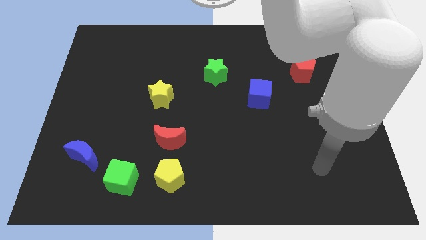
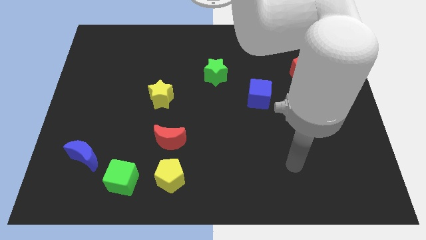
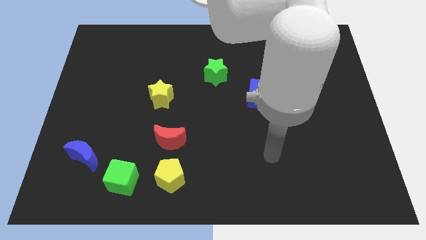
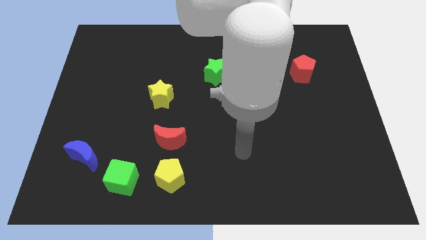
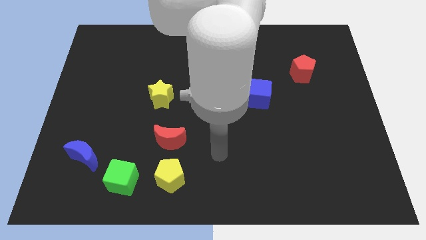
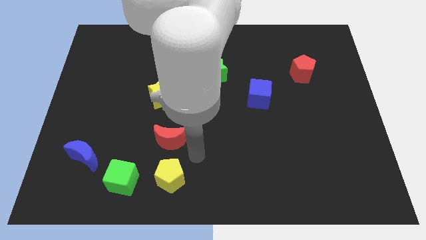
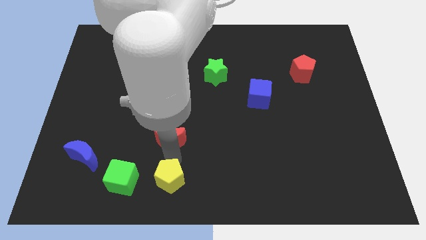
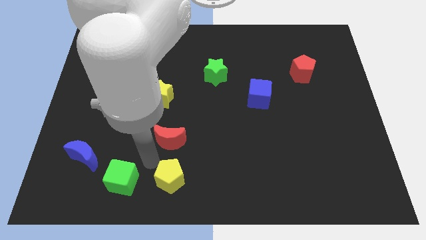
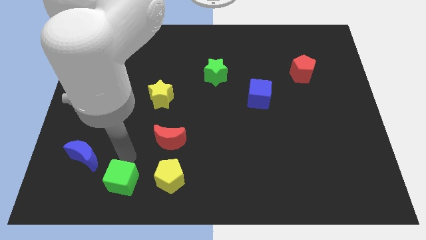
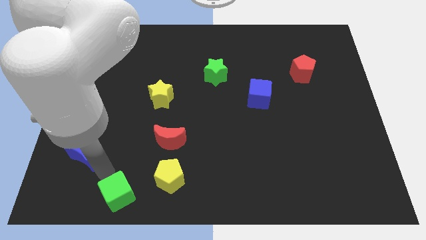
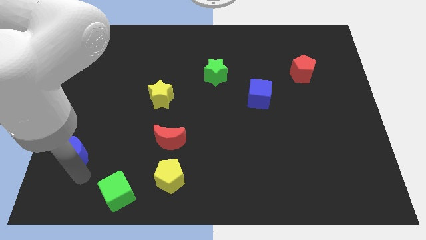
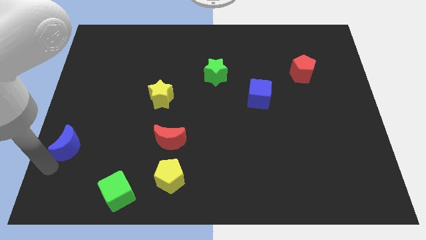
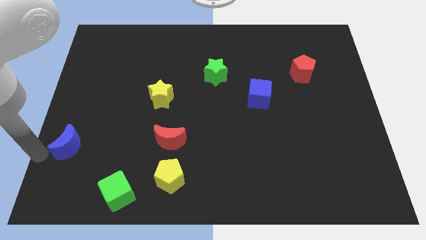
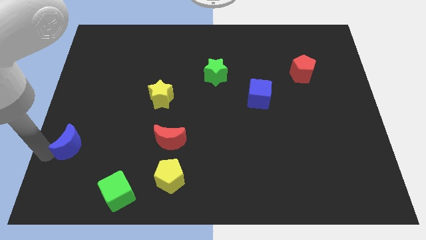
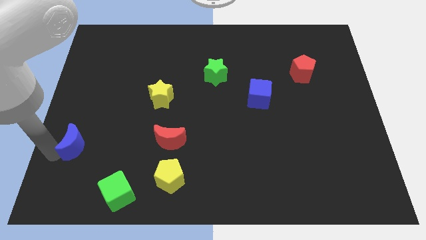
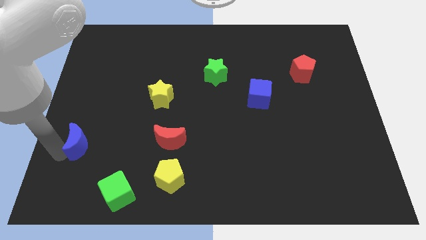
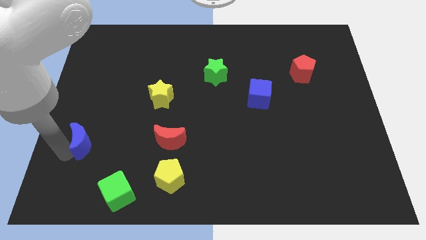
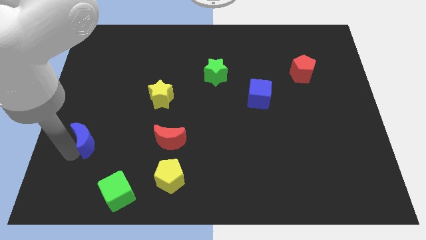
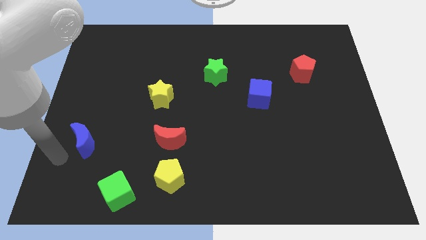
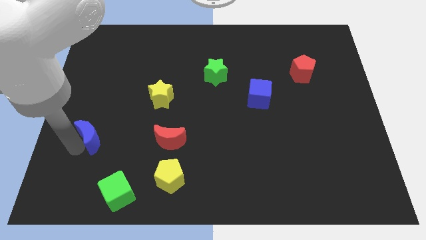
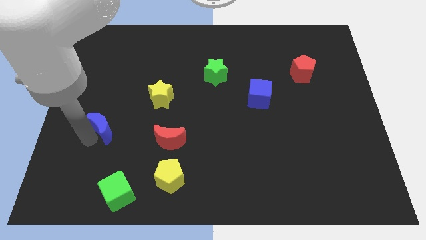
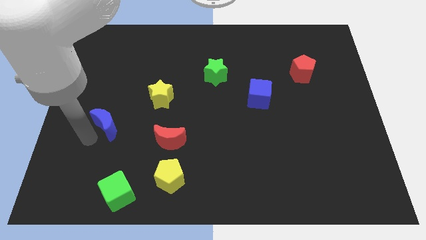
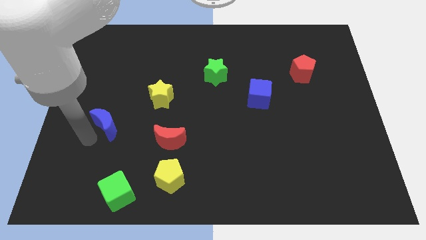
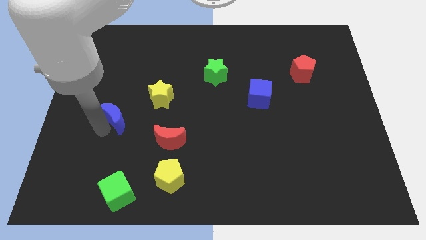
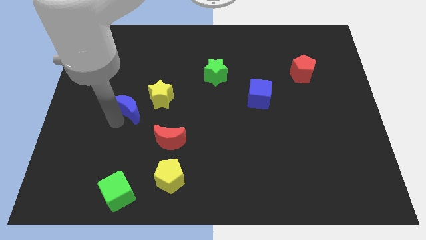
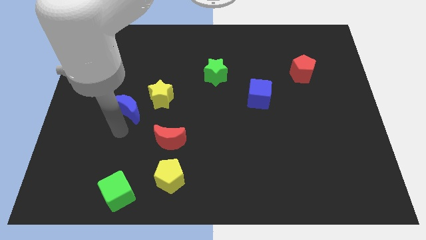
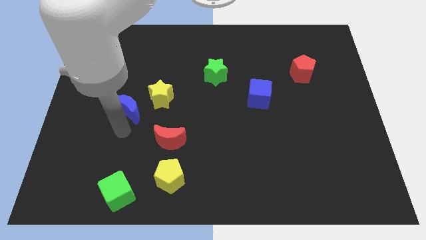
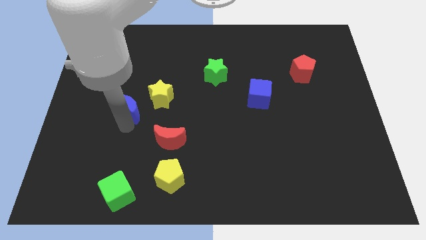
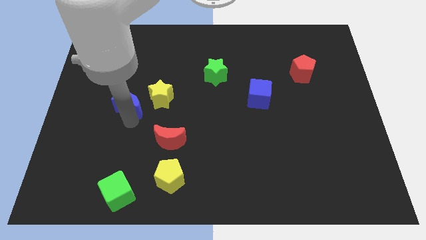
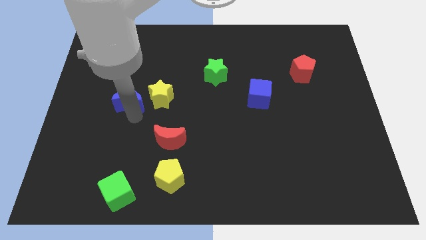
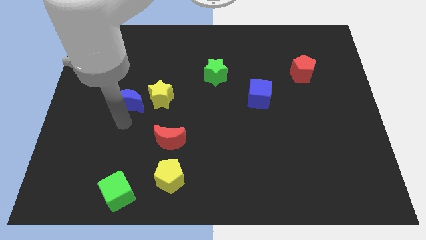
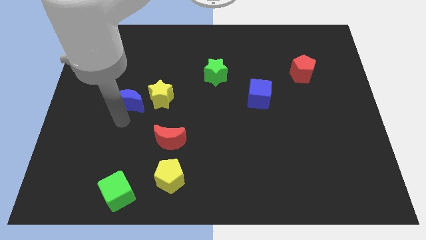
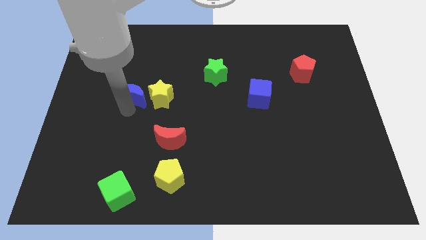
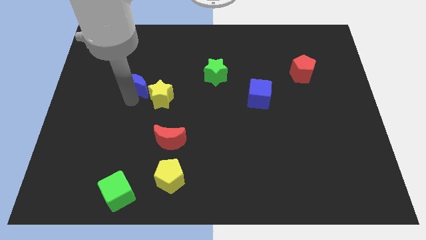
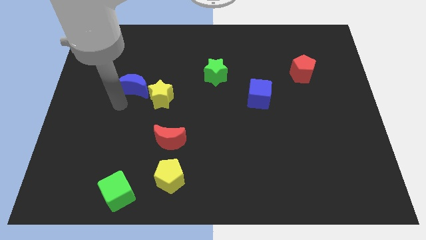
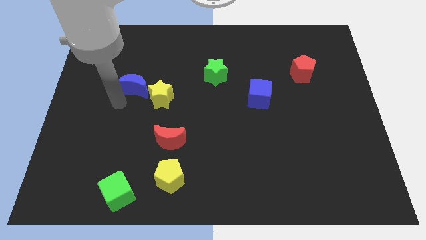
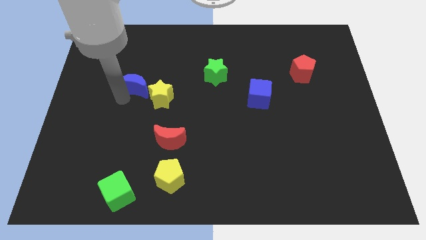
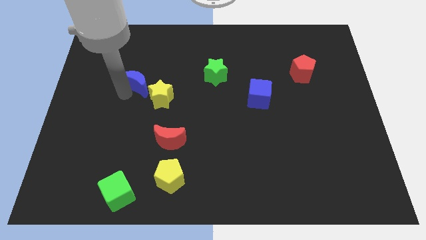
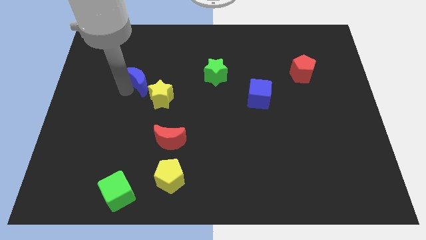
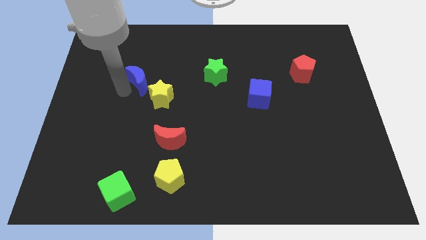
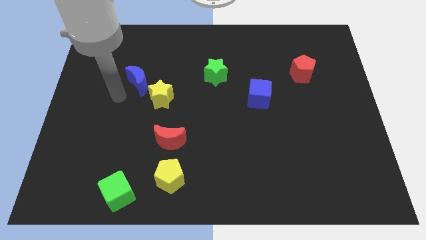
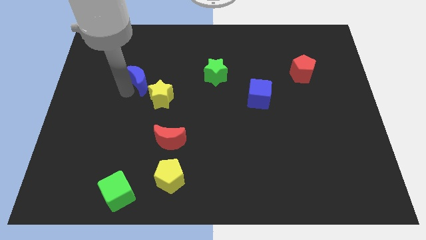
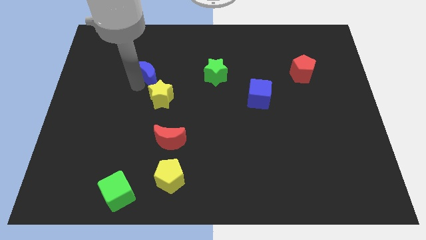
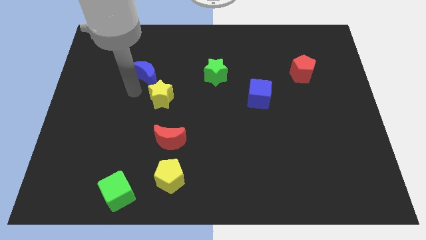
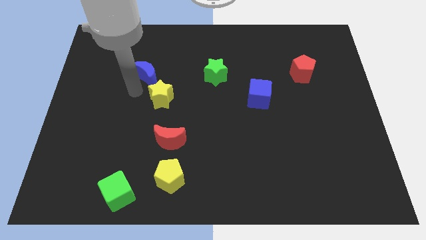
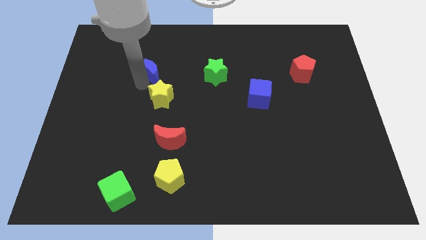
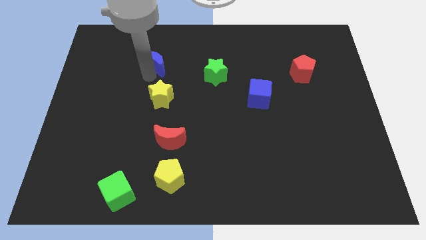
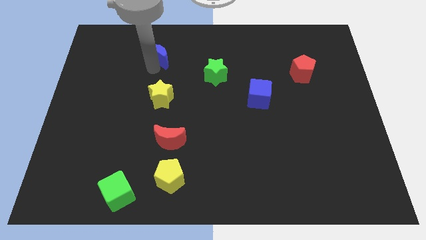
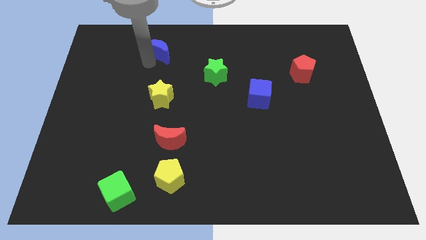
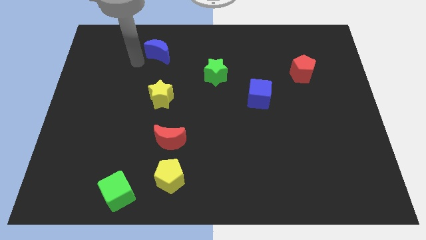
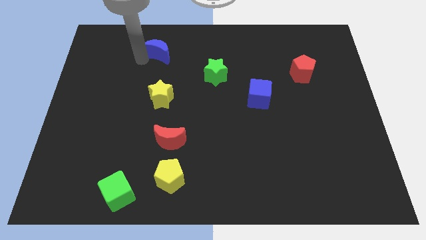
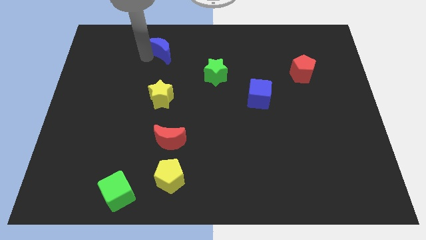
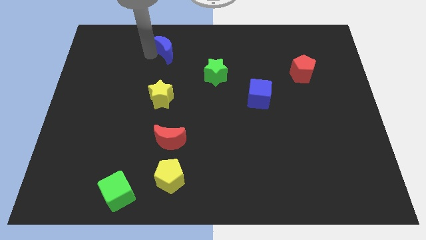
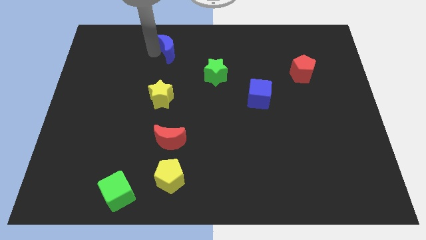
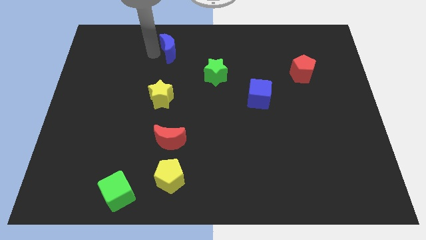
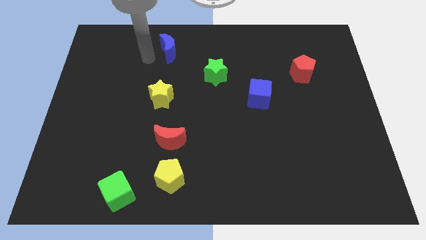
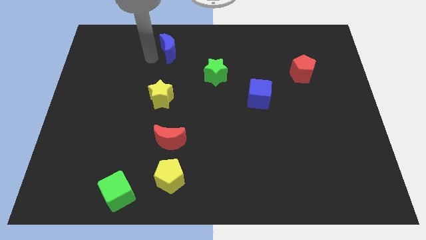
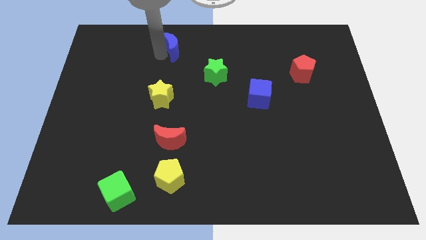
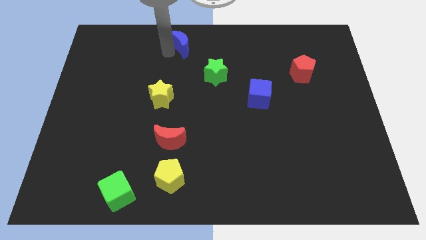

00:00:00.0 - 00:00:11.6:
put the blue moon to the top side
